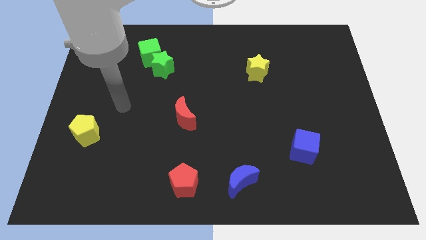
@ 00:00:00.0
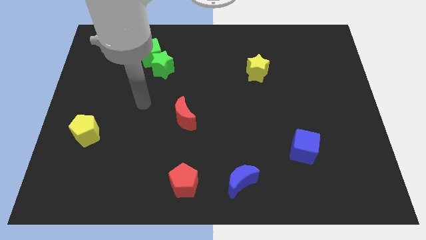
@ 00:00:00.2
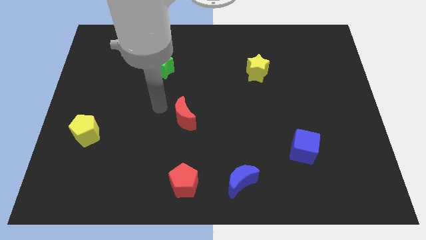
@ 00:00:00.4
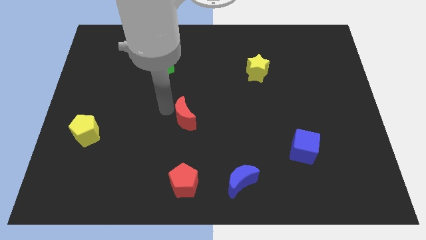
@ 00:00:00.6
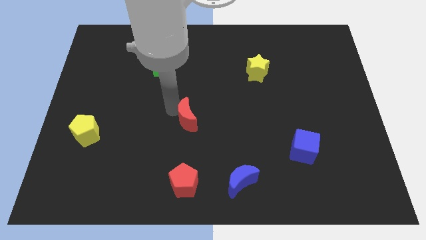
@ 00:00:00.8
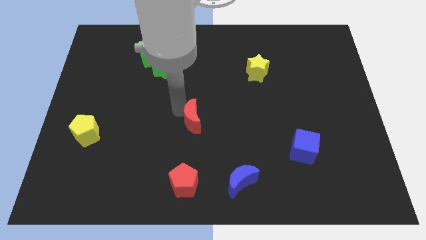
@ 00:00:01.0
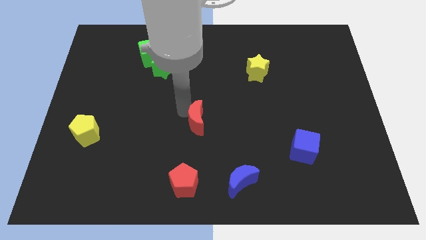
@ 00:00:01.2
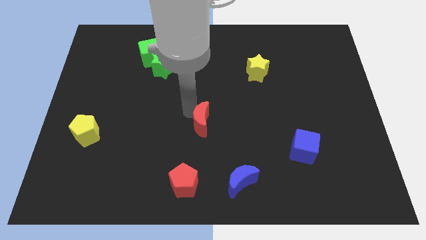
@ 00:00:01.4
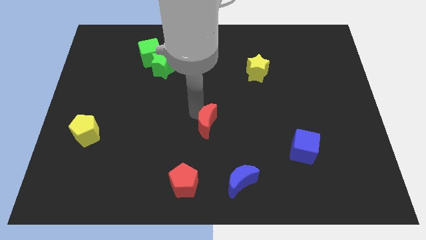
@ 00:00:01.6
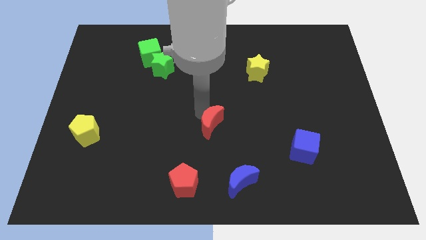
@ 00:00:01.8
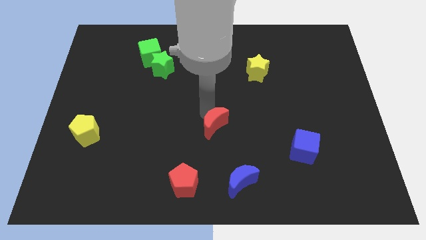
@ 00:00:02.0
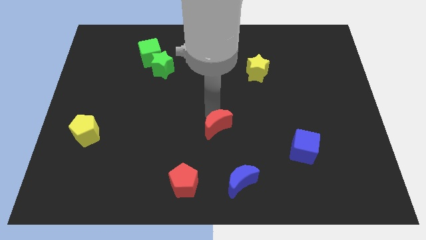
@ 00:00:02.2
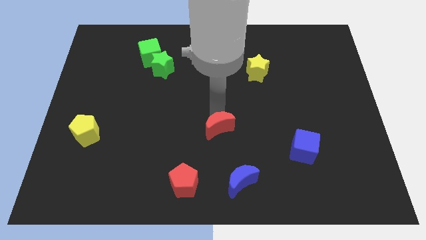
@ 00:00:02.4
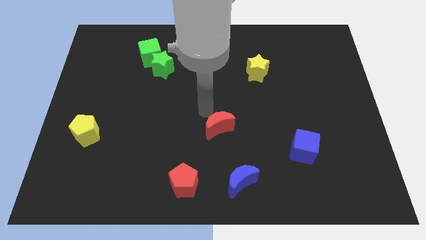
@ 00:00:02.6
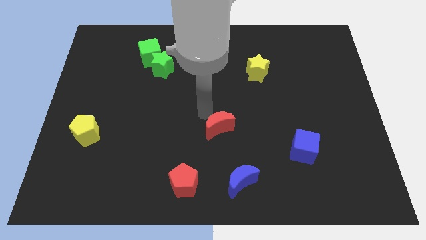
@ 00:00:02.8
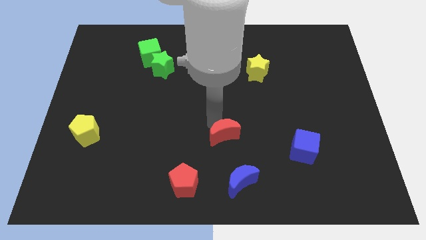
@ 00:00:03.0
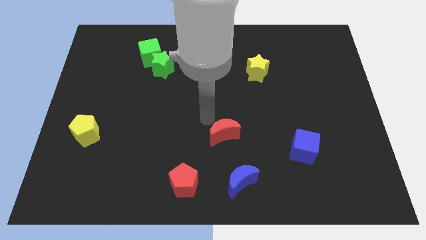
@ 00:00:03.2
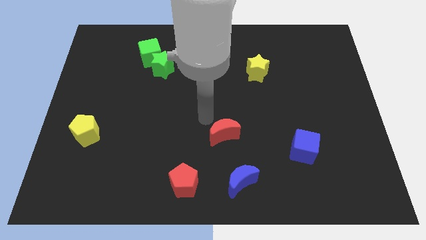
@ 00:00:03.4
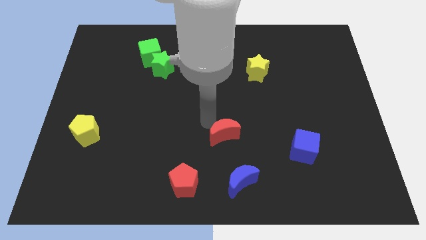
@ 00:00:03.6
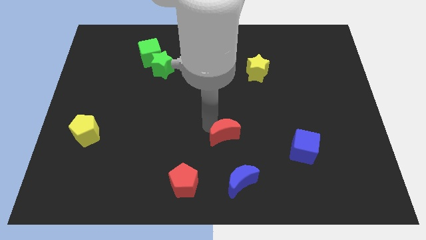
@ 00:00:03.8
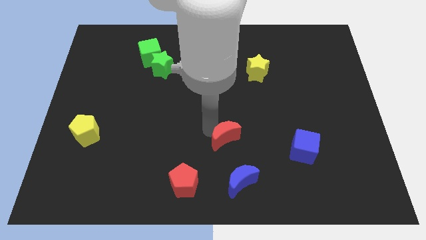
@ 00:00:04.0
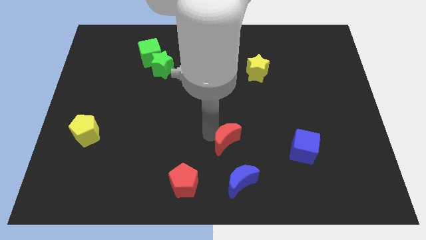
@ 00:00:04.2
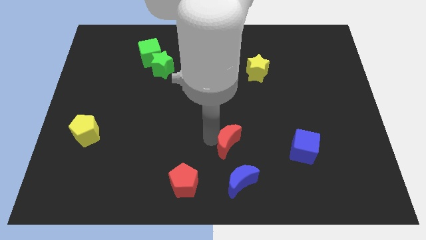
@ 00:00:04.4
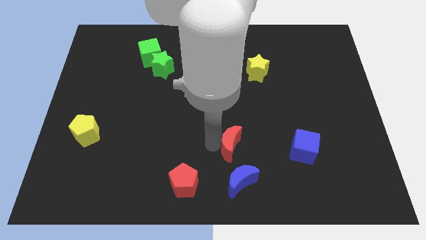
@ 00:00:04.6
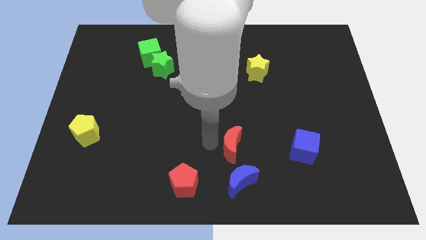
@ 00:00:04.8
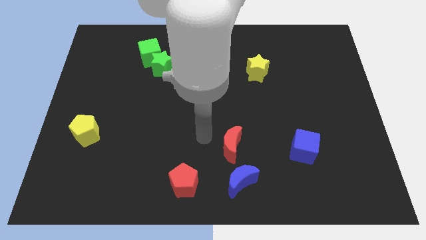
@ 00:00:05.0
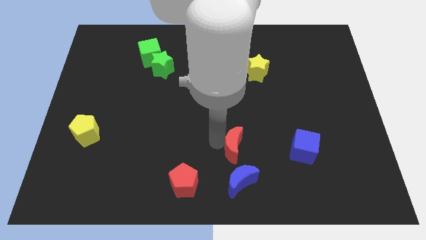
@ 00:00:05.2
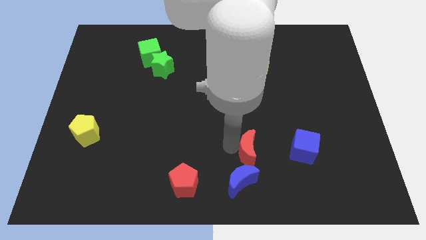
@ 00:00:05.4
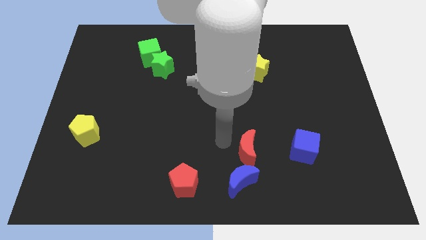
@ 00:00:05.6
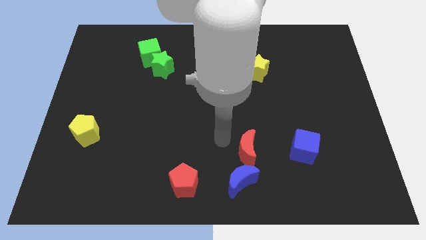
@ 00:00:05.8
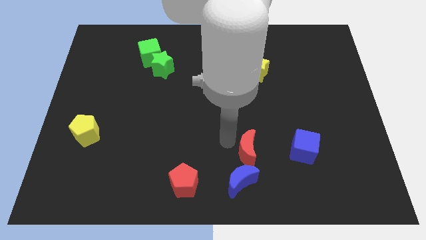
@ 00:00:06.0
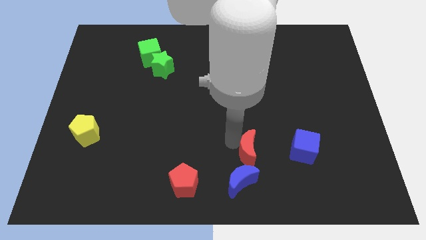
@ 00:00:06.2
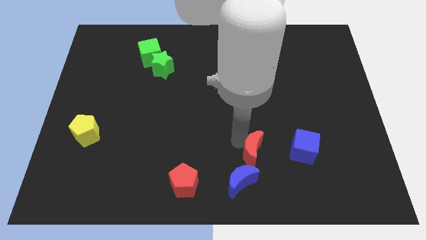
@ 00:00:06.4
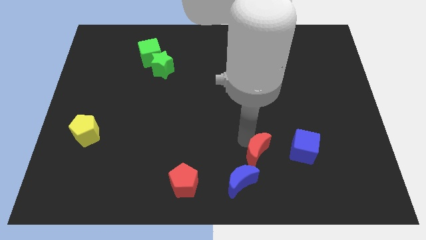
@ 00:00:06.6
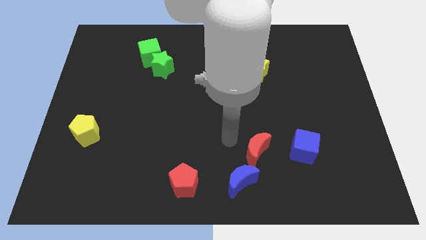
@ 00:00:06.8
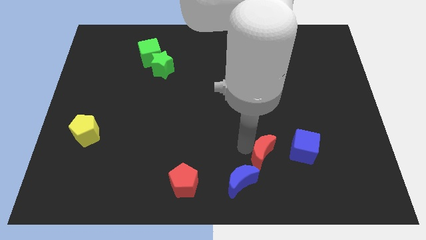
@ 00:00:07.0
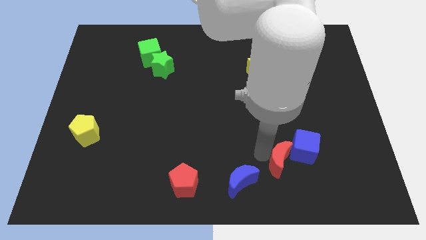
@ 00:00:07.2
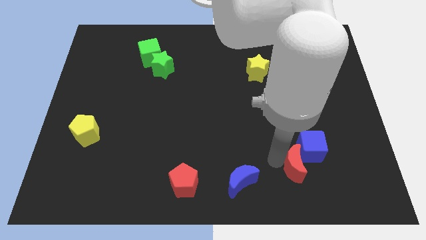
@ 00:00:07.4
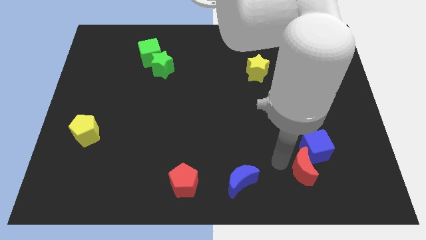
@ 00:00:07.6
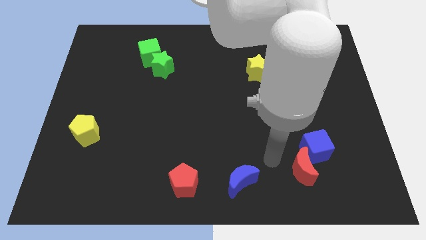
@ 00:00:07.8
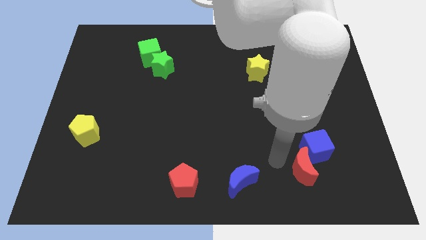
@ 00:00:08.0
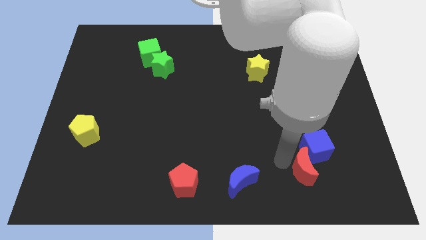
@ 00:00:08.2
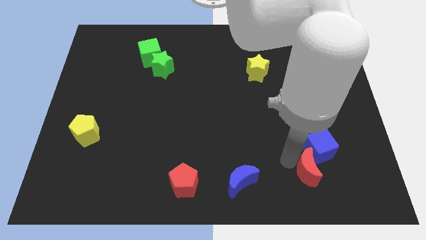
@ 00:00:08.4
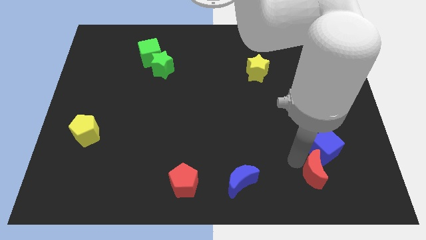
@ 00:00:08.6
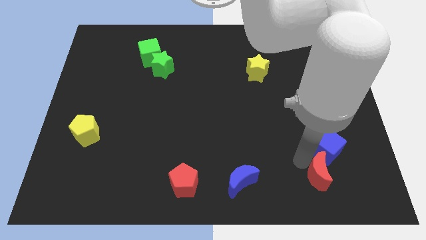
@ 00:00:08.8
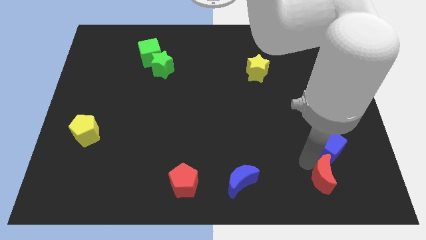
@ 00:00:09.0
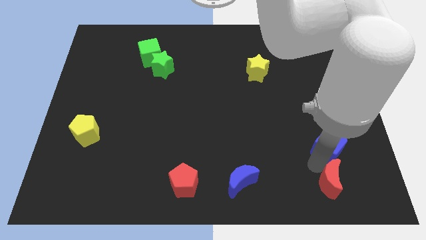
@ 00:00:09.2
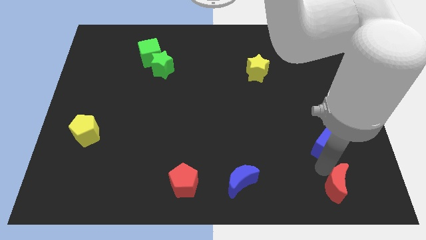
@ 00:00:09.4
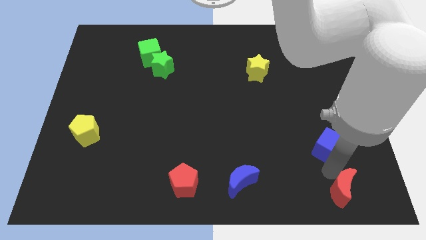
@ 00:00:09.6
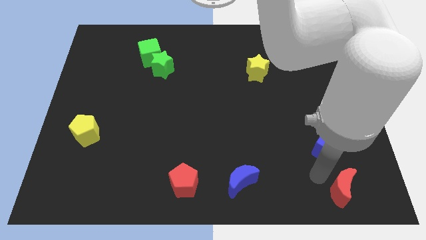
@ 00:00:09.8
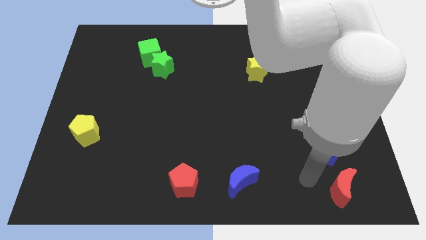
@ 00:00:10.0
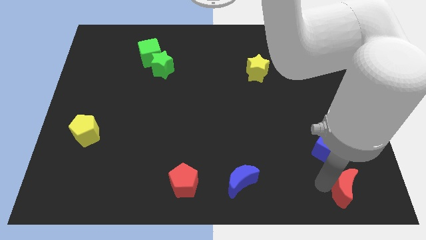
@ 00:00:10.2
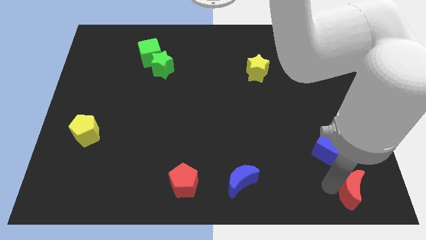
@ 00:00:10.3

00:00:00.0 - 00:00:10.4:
put the red moon to the bottom right of the board

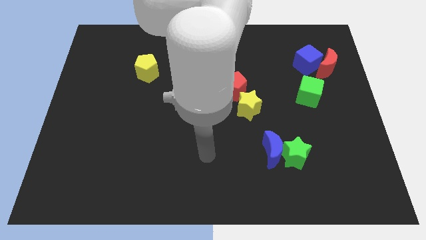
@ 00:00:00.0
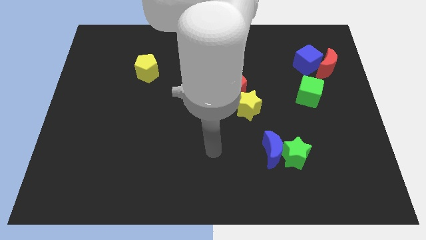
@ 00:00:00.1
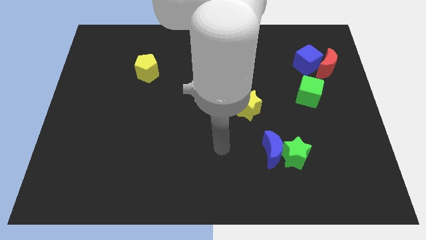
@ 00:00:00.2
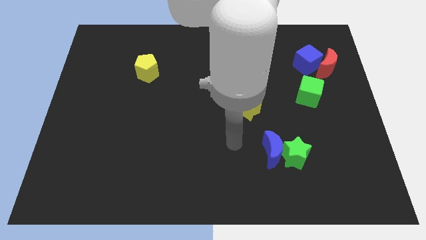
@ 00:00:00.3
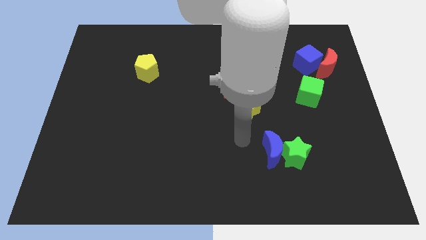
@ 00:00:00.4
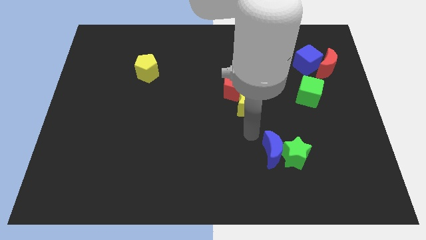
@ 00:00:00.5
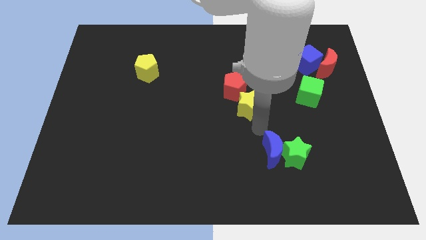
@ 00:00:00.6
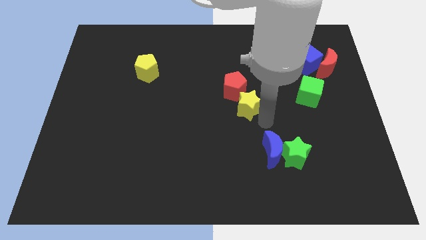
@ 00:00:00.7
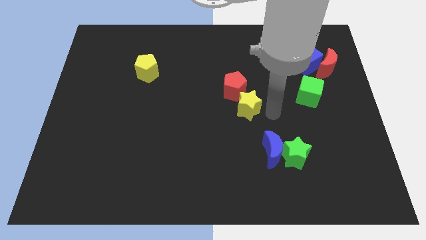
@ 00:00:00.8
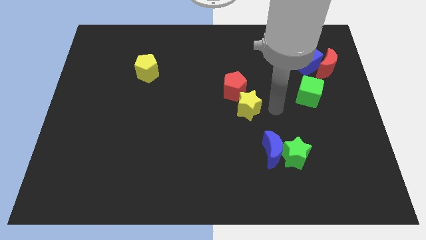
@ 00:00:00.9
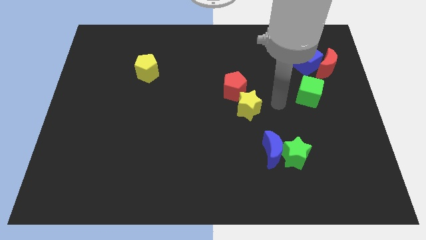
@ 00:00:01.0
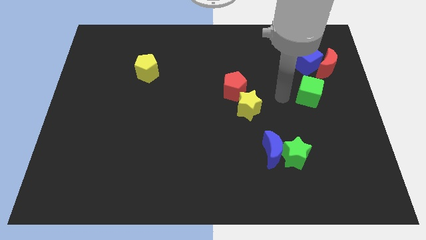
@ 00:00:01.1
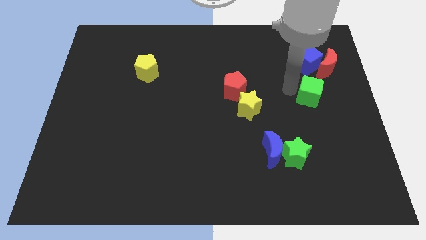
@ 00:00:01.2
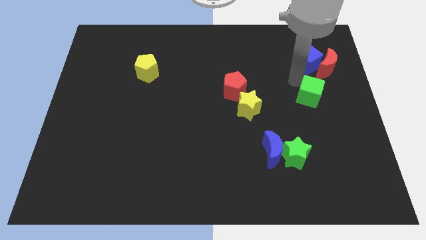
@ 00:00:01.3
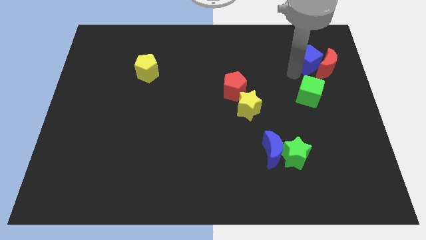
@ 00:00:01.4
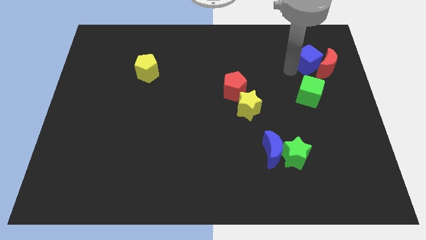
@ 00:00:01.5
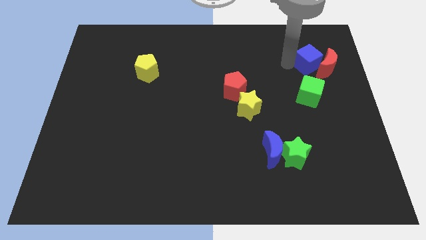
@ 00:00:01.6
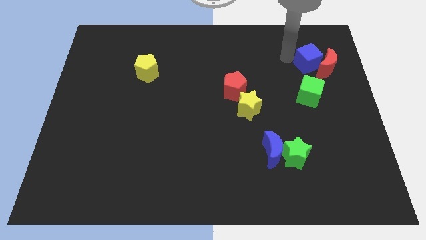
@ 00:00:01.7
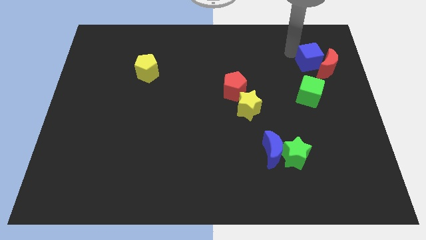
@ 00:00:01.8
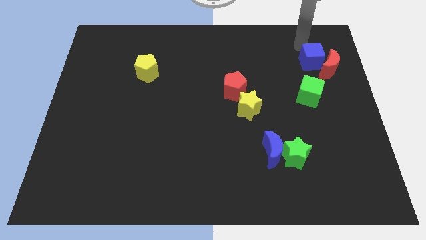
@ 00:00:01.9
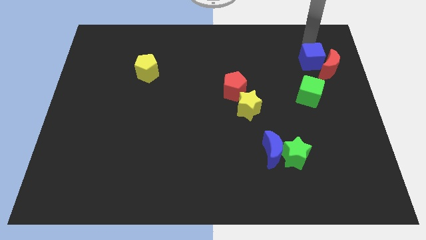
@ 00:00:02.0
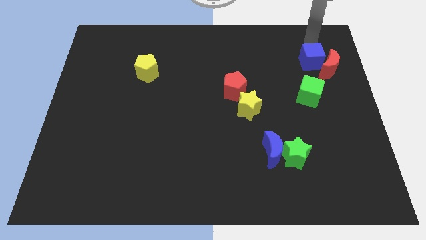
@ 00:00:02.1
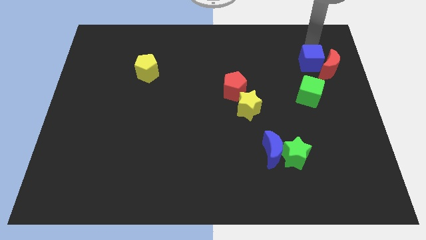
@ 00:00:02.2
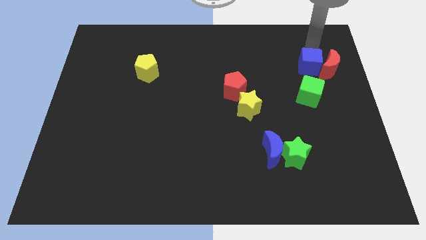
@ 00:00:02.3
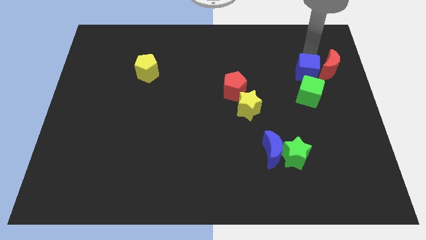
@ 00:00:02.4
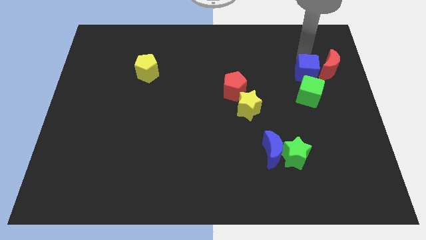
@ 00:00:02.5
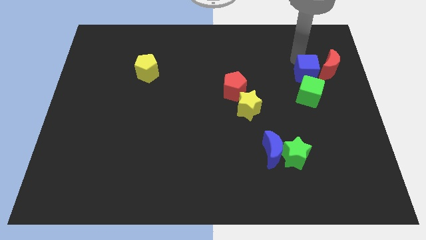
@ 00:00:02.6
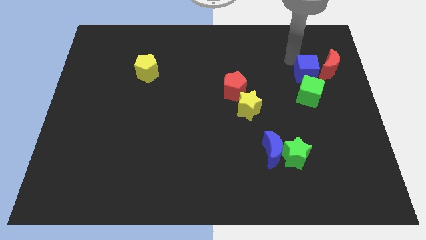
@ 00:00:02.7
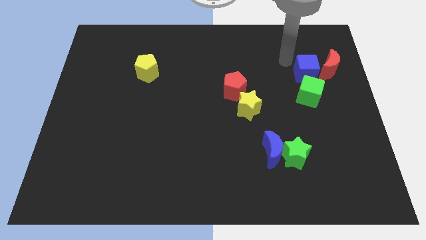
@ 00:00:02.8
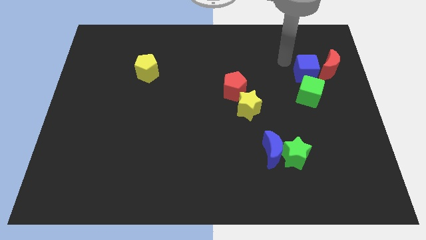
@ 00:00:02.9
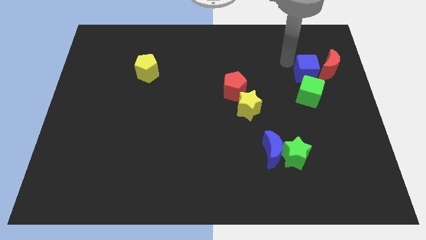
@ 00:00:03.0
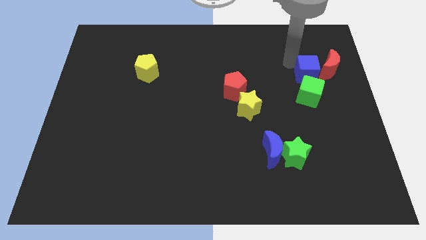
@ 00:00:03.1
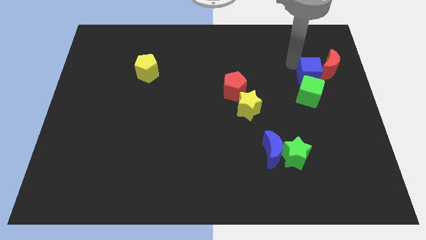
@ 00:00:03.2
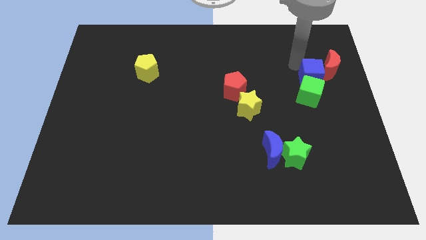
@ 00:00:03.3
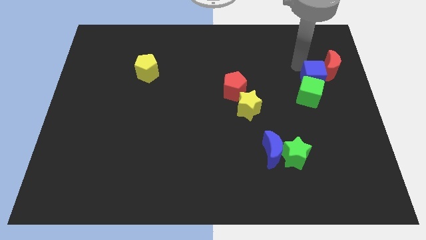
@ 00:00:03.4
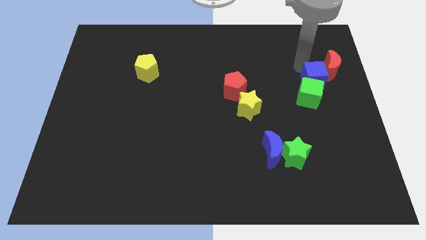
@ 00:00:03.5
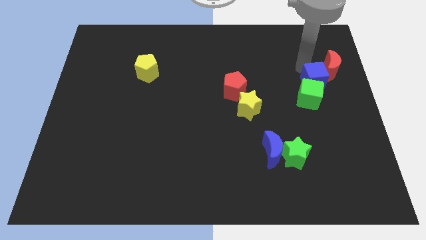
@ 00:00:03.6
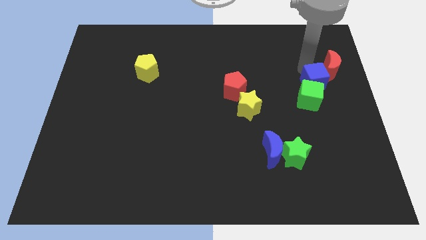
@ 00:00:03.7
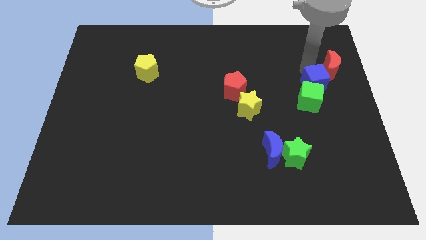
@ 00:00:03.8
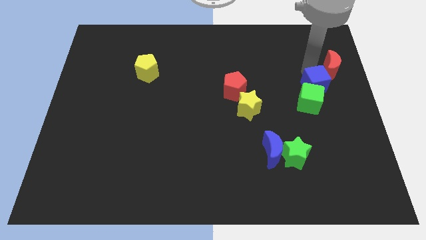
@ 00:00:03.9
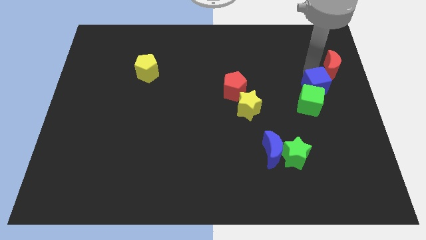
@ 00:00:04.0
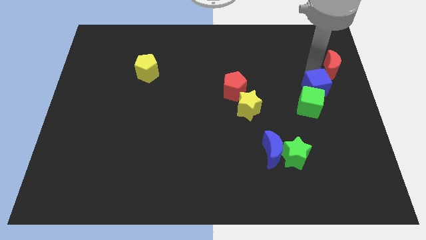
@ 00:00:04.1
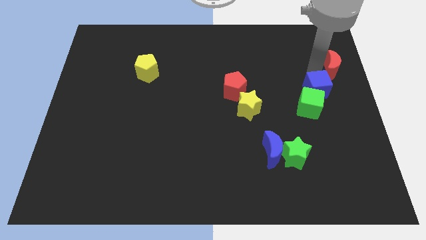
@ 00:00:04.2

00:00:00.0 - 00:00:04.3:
slide the blue cube to the right side of the board
